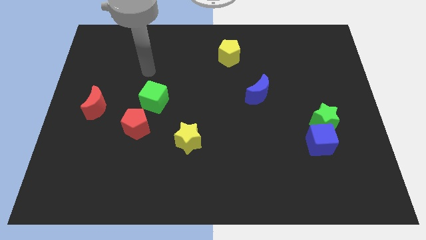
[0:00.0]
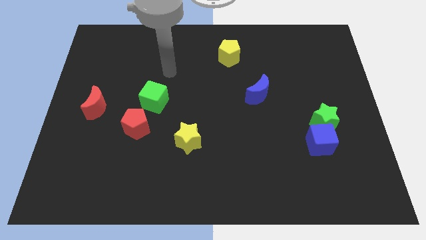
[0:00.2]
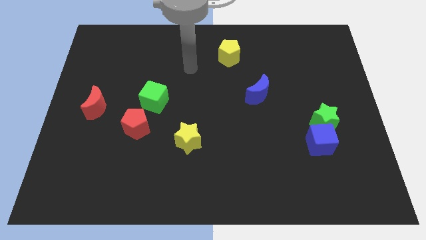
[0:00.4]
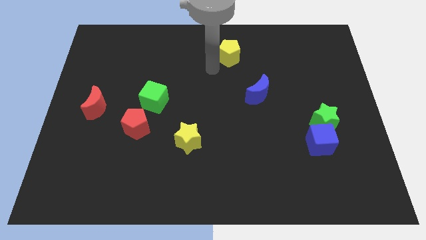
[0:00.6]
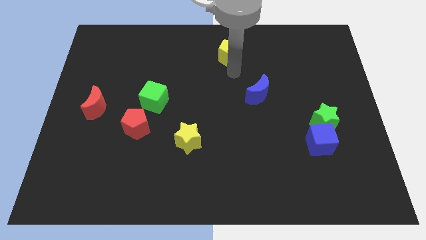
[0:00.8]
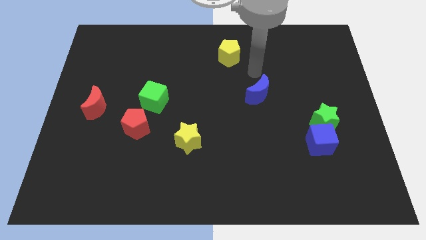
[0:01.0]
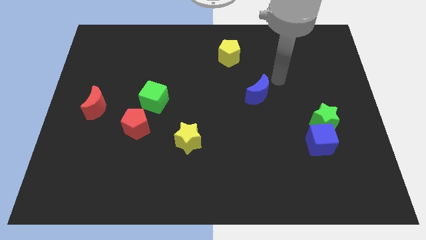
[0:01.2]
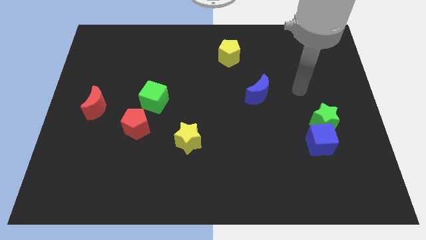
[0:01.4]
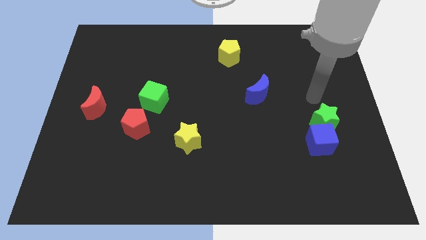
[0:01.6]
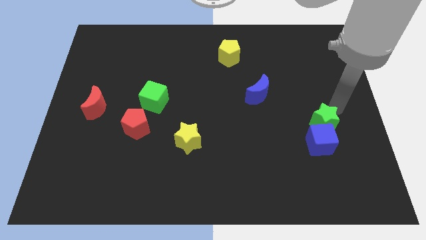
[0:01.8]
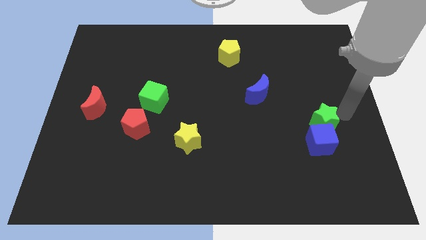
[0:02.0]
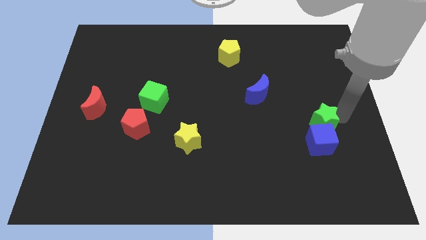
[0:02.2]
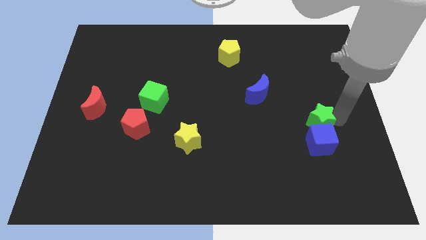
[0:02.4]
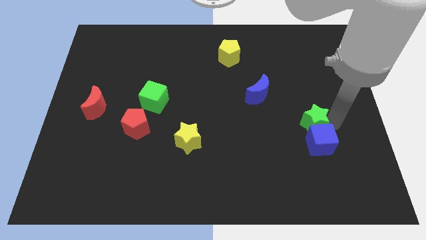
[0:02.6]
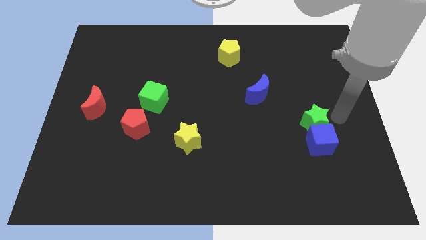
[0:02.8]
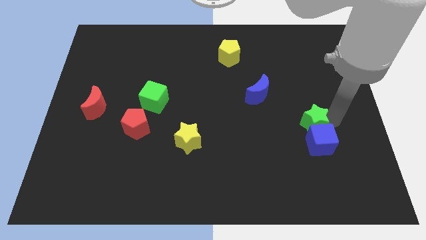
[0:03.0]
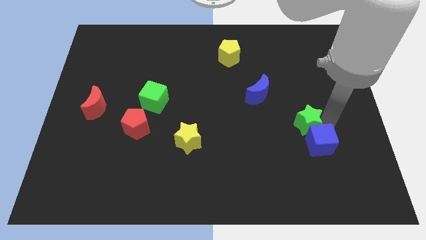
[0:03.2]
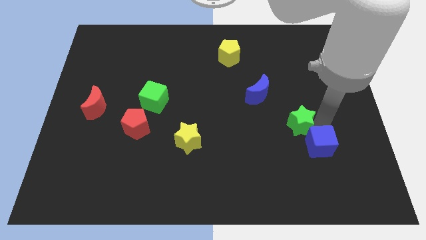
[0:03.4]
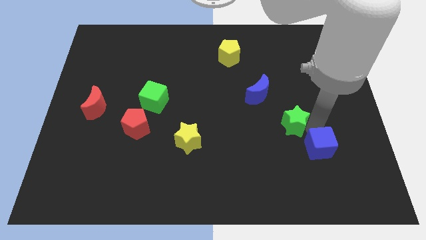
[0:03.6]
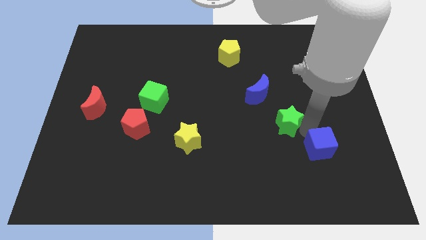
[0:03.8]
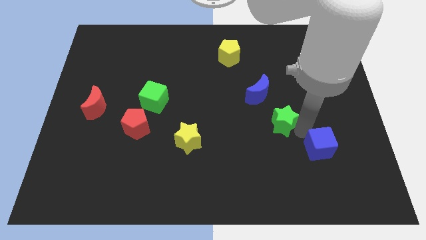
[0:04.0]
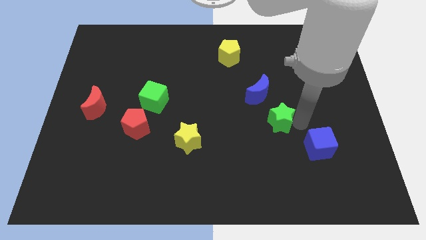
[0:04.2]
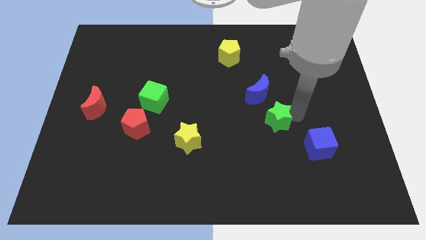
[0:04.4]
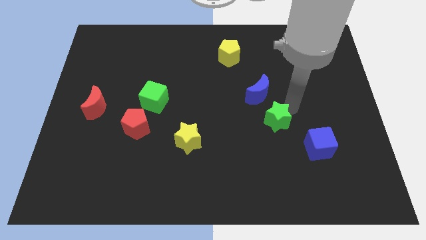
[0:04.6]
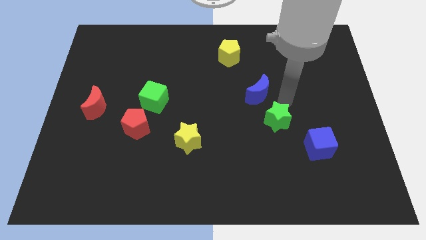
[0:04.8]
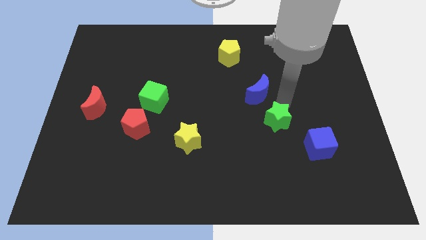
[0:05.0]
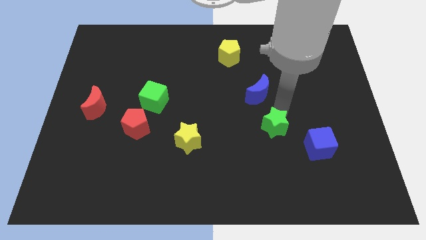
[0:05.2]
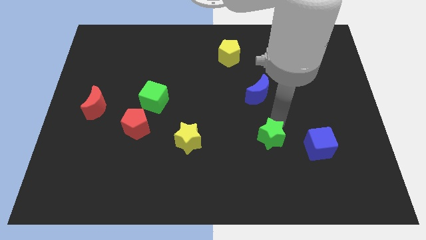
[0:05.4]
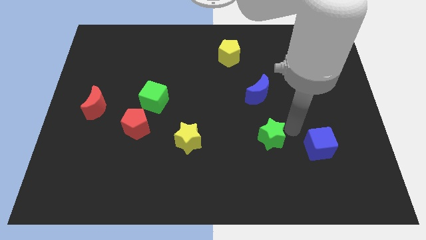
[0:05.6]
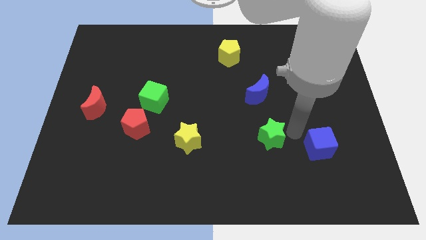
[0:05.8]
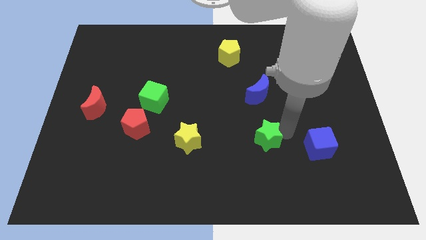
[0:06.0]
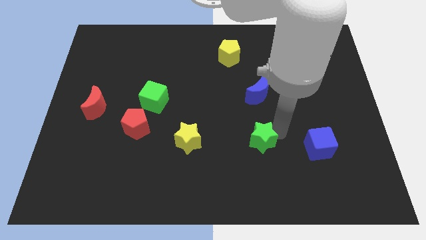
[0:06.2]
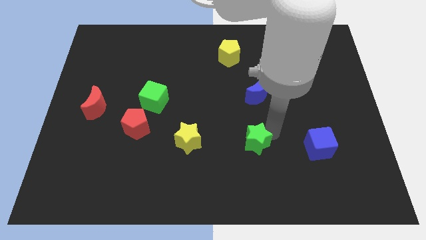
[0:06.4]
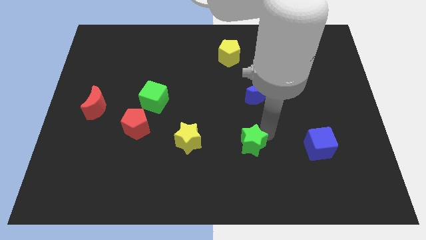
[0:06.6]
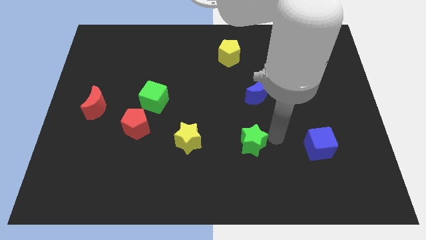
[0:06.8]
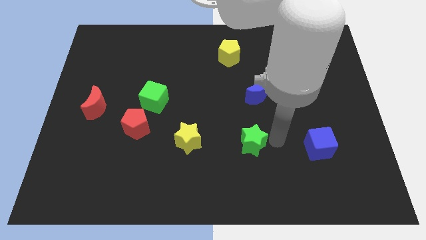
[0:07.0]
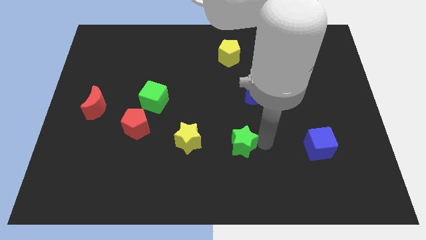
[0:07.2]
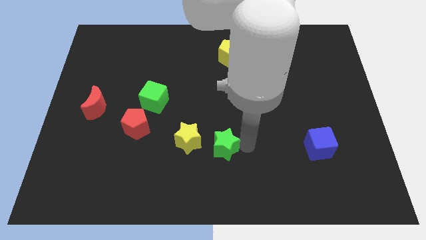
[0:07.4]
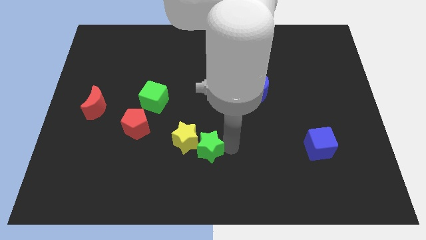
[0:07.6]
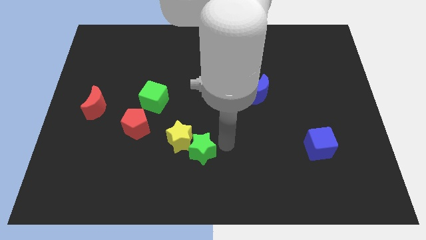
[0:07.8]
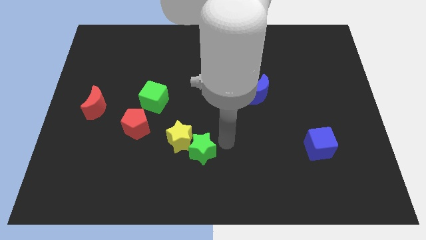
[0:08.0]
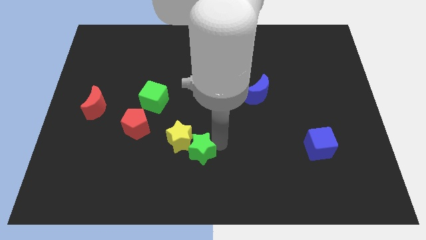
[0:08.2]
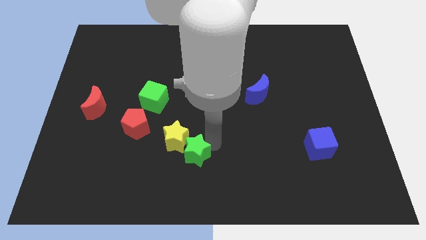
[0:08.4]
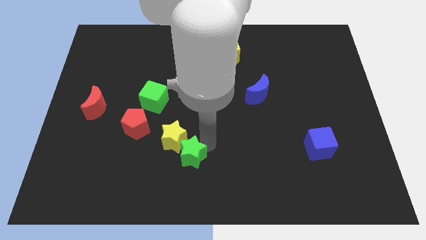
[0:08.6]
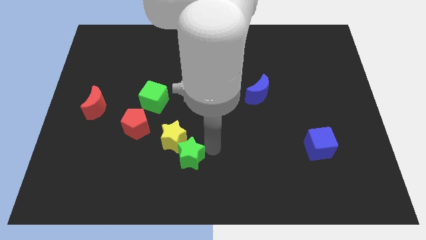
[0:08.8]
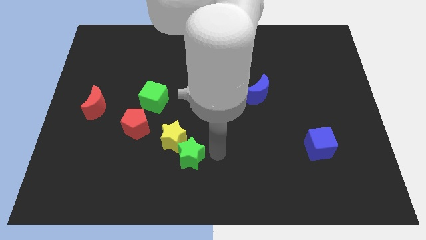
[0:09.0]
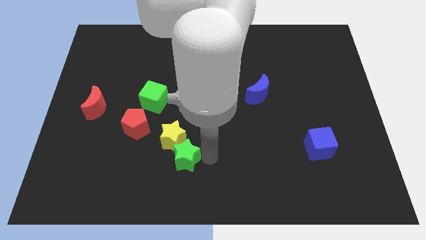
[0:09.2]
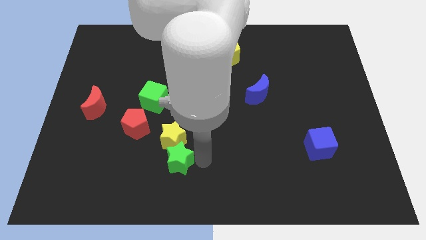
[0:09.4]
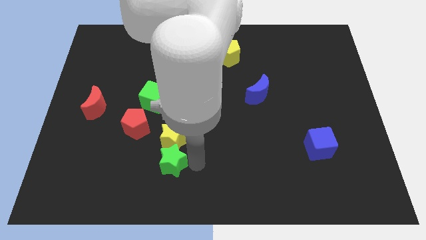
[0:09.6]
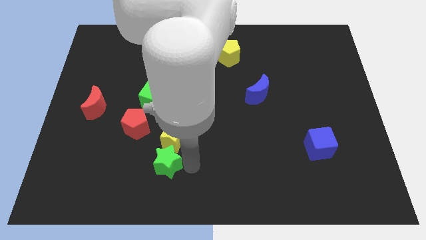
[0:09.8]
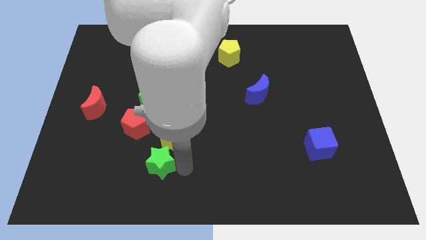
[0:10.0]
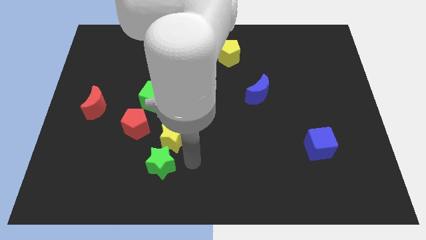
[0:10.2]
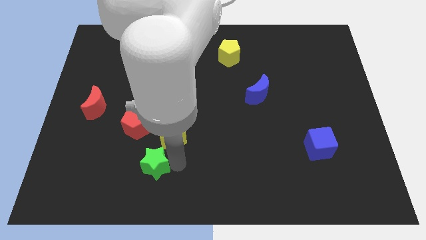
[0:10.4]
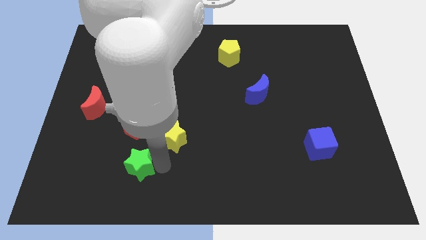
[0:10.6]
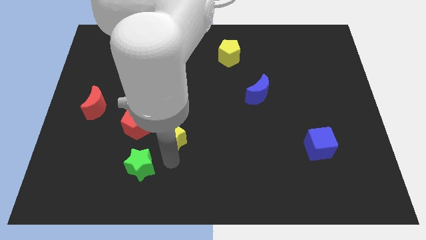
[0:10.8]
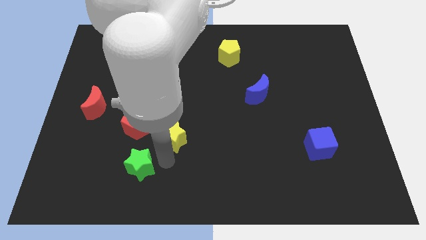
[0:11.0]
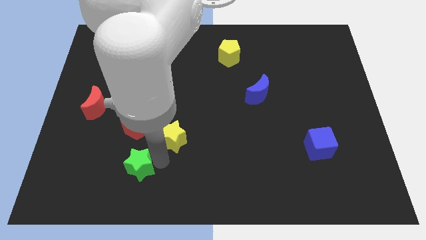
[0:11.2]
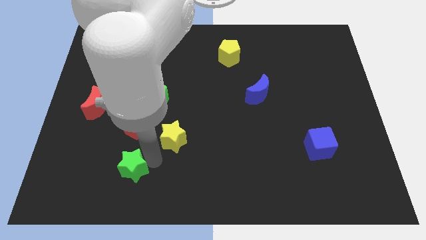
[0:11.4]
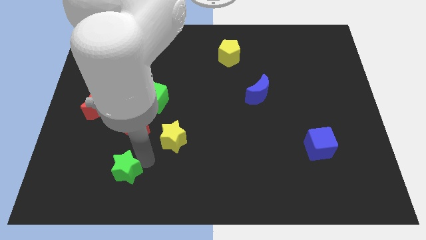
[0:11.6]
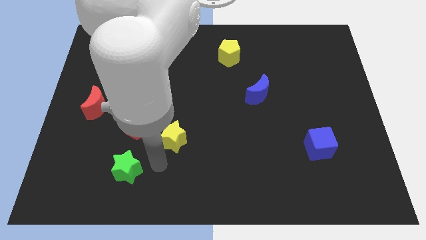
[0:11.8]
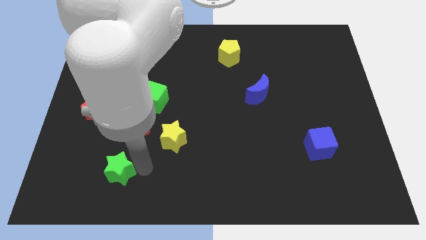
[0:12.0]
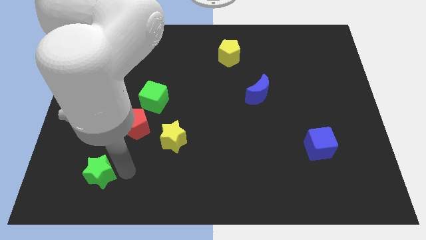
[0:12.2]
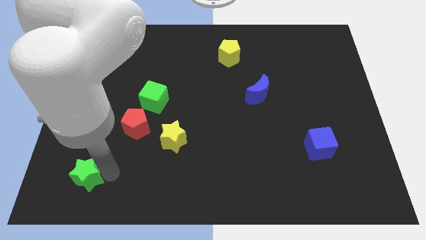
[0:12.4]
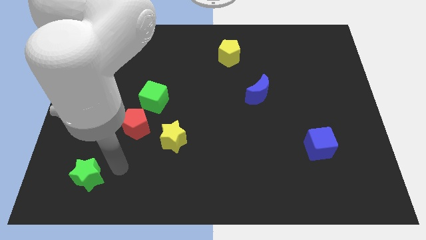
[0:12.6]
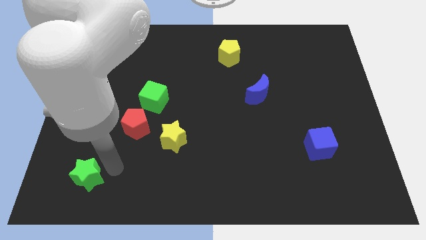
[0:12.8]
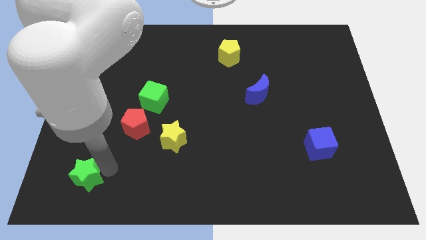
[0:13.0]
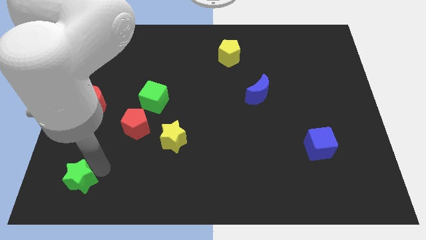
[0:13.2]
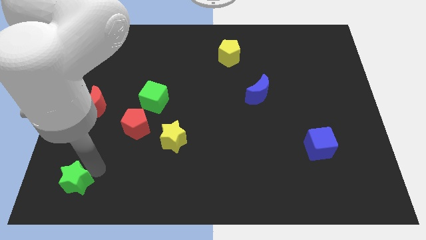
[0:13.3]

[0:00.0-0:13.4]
slide the green star to the lower left corner
